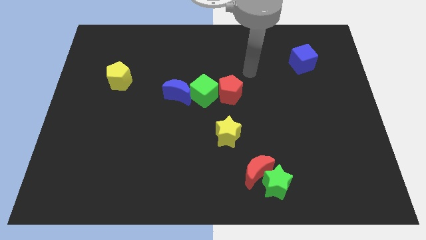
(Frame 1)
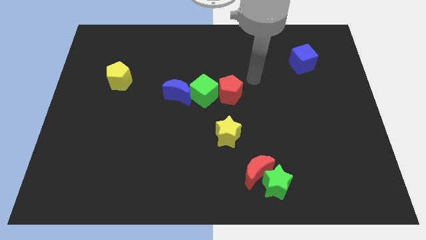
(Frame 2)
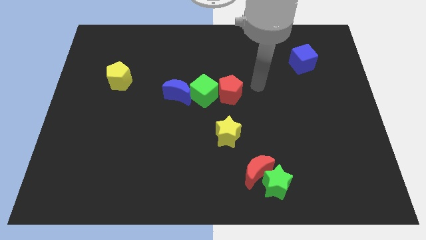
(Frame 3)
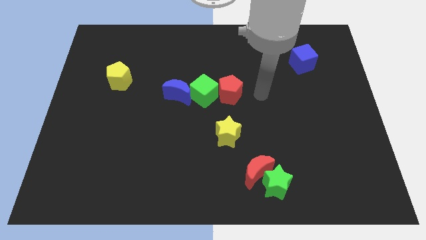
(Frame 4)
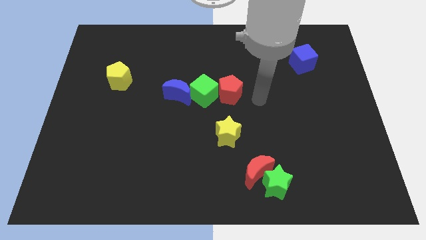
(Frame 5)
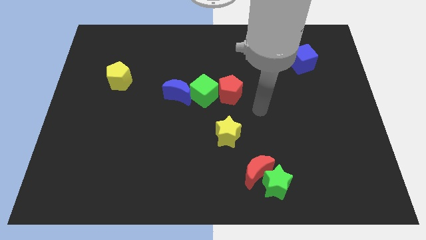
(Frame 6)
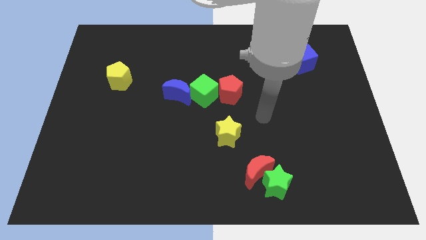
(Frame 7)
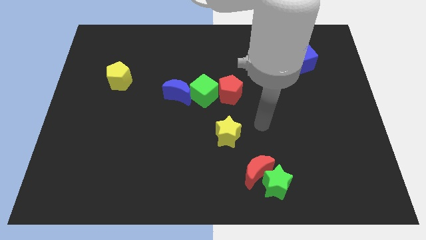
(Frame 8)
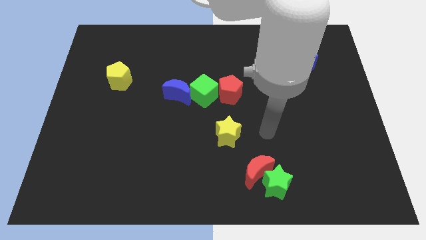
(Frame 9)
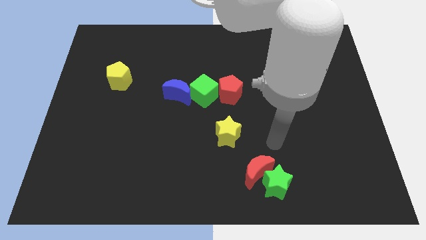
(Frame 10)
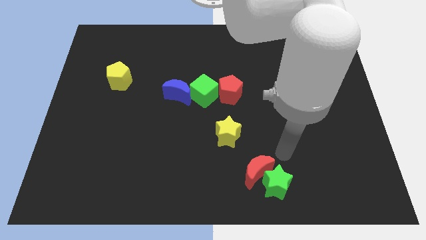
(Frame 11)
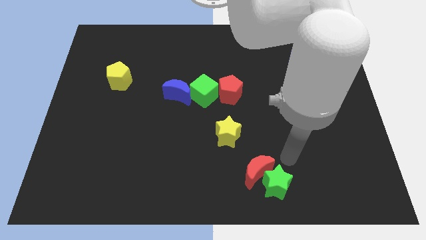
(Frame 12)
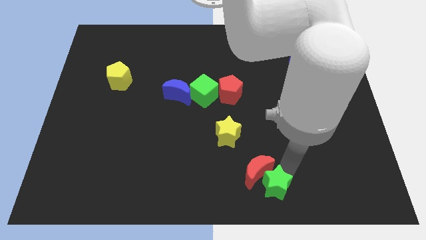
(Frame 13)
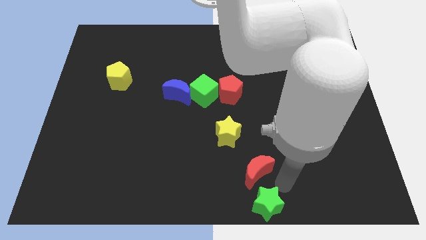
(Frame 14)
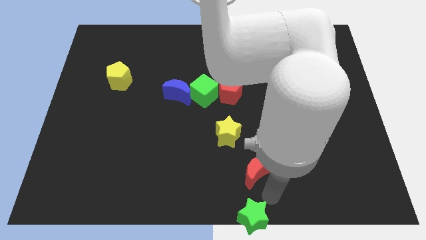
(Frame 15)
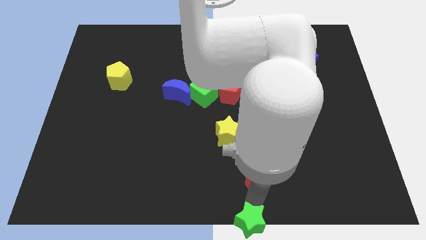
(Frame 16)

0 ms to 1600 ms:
separate the red moon from the green star

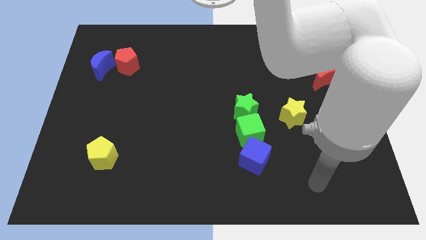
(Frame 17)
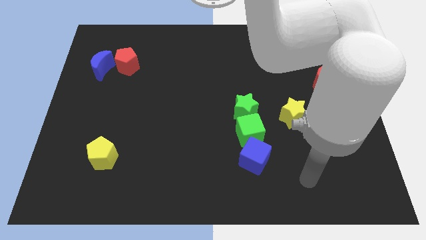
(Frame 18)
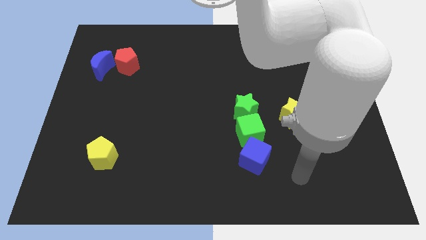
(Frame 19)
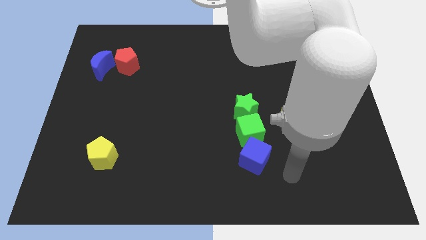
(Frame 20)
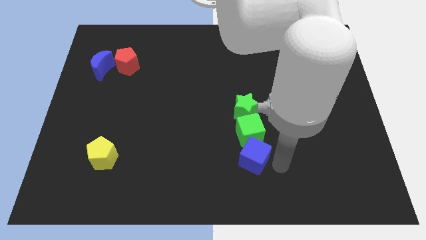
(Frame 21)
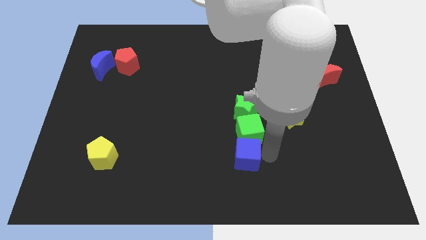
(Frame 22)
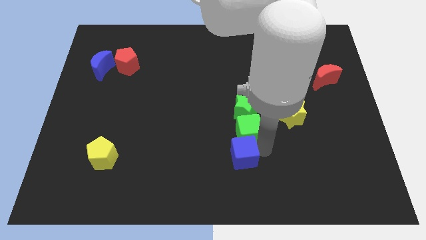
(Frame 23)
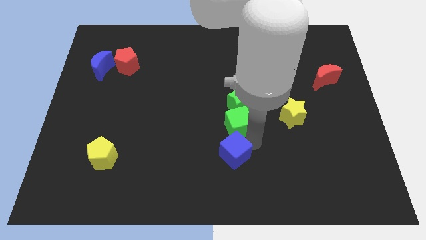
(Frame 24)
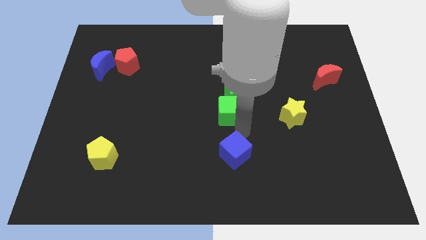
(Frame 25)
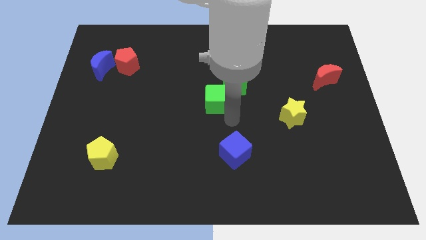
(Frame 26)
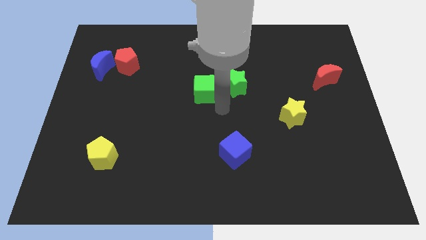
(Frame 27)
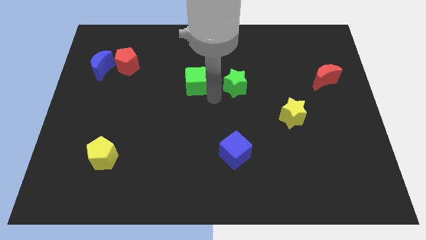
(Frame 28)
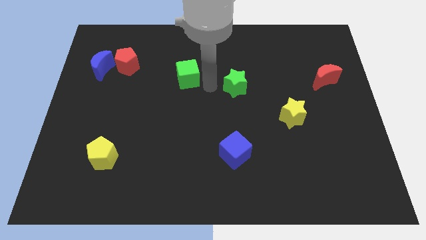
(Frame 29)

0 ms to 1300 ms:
pull the green star apart from the green cube

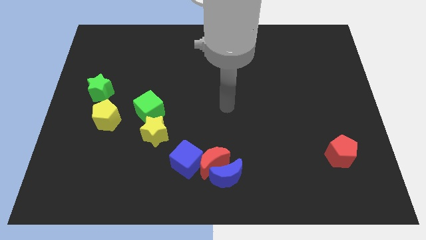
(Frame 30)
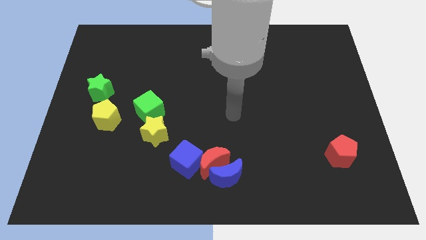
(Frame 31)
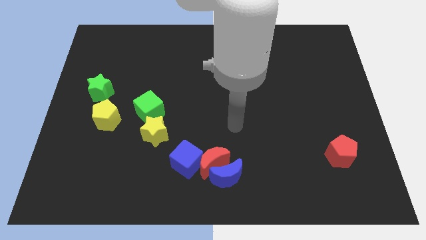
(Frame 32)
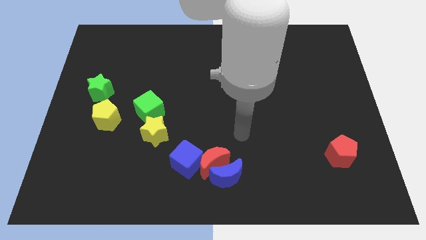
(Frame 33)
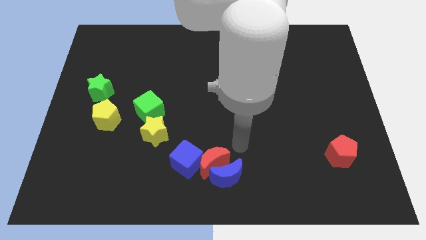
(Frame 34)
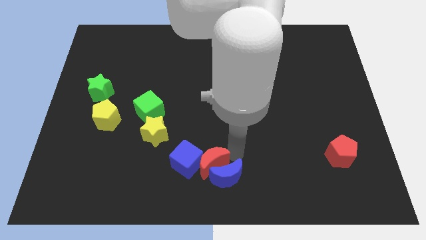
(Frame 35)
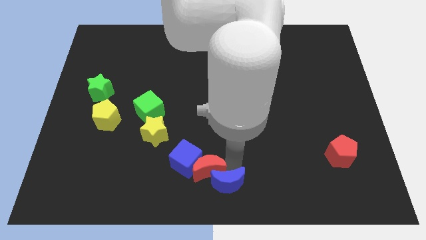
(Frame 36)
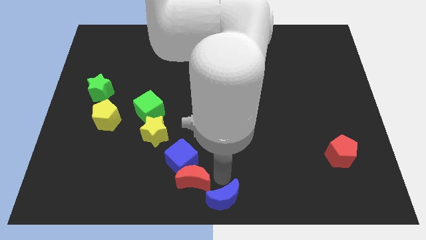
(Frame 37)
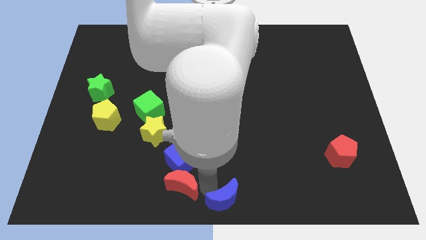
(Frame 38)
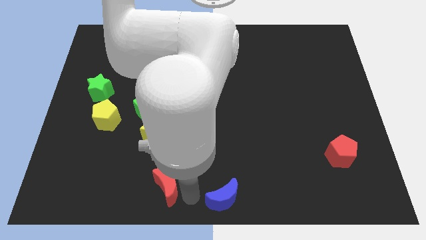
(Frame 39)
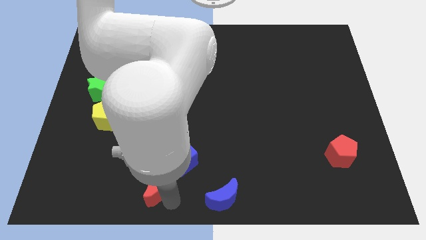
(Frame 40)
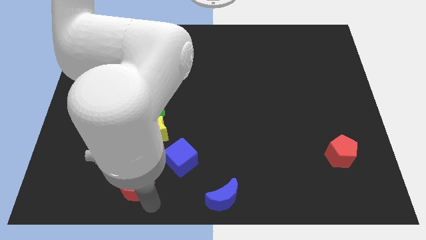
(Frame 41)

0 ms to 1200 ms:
move the red moon away from the blue moon and blue cube

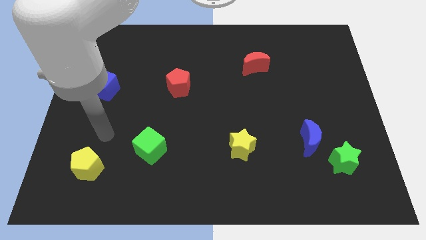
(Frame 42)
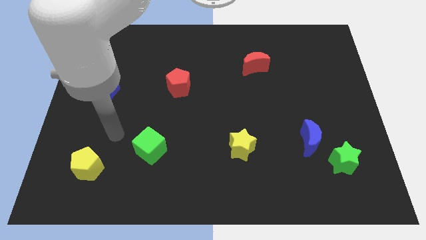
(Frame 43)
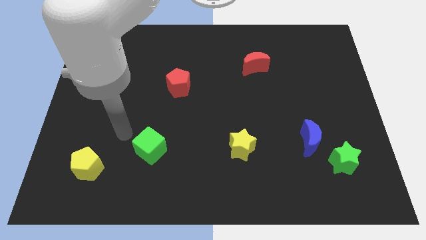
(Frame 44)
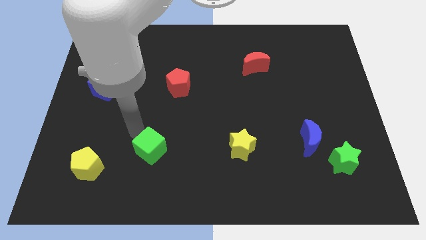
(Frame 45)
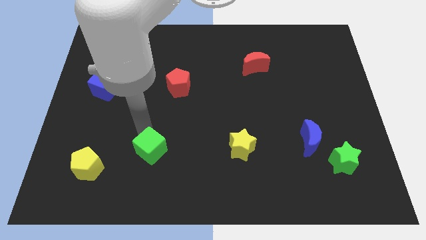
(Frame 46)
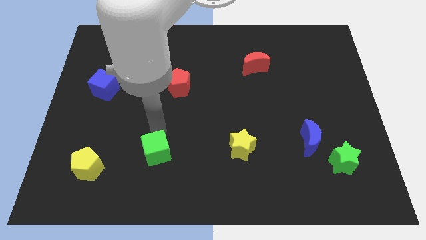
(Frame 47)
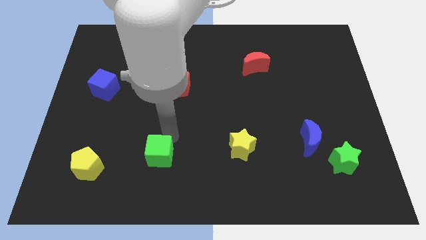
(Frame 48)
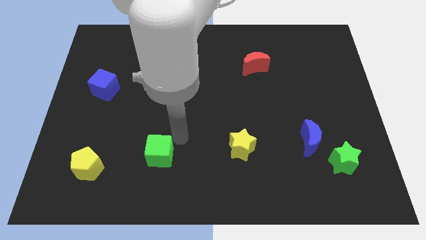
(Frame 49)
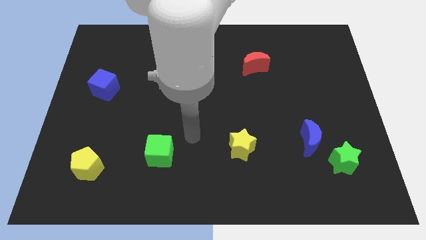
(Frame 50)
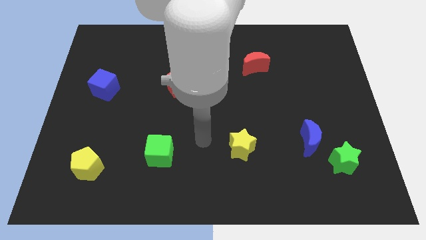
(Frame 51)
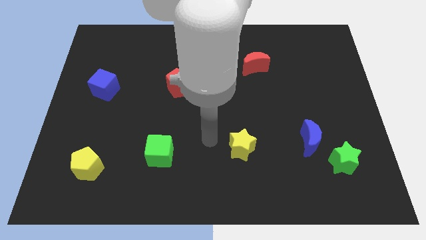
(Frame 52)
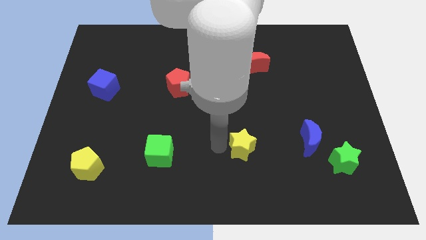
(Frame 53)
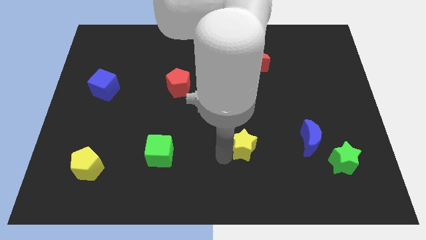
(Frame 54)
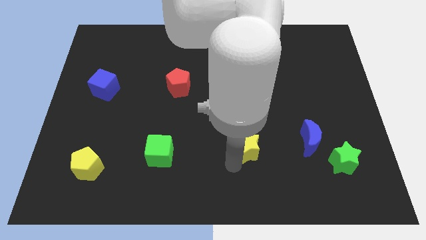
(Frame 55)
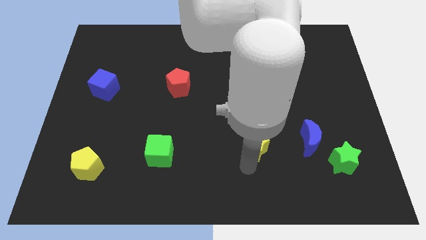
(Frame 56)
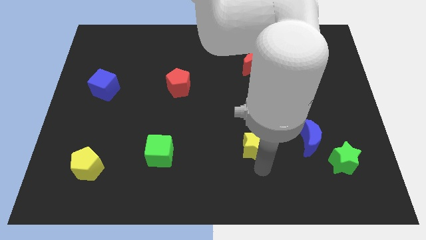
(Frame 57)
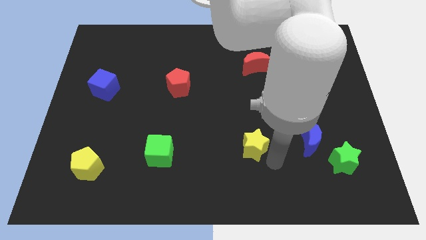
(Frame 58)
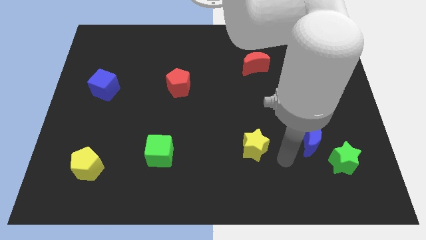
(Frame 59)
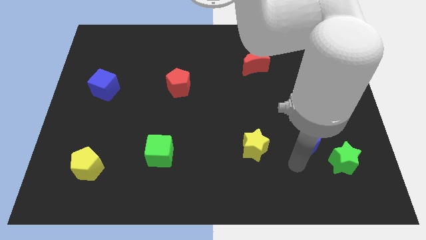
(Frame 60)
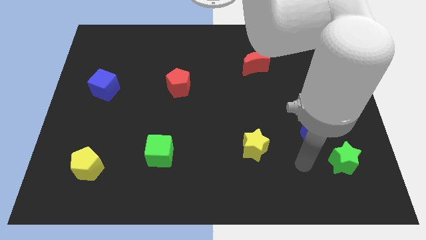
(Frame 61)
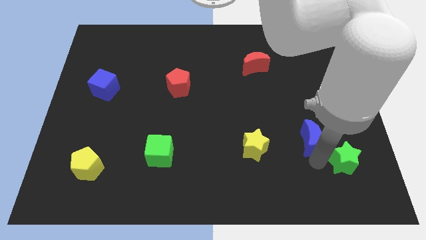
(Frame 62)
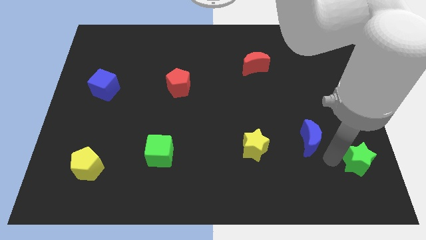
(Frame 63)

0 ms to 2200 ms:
pull the blue moon apart from the green star

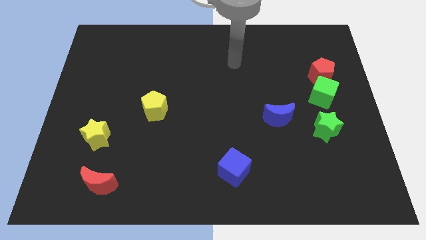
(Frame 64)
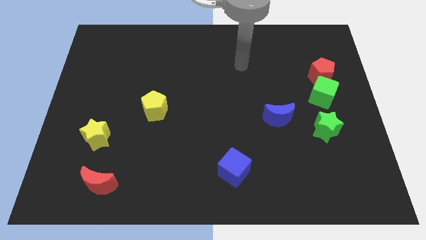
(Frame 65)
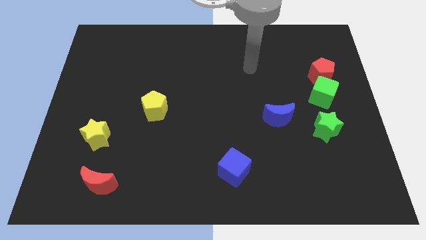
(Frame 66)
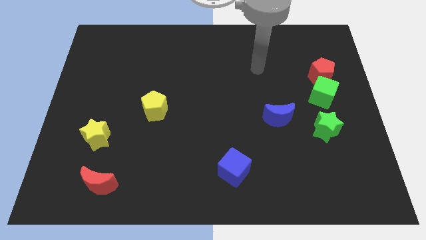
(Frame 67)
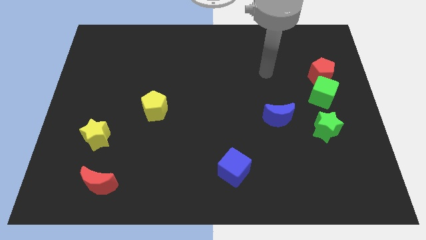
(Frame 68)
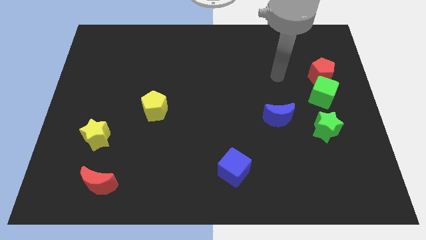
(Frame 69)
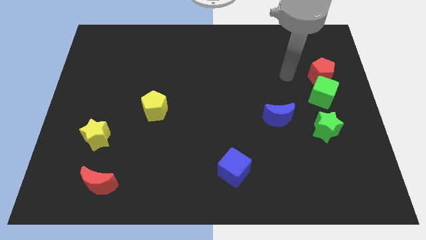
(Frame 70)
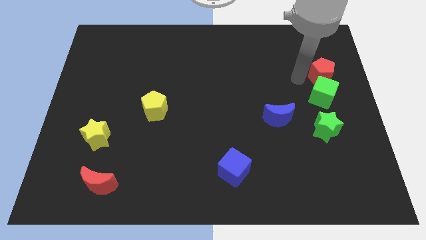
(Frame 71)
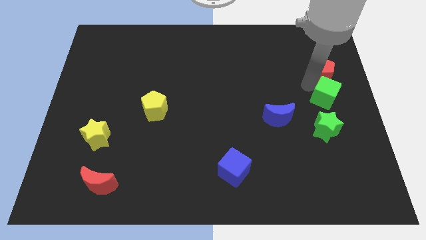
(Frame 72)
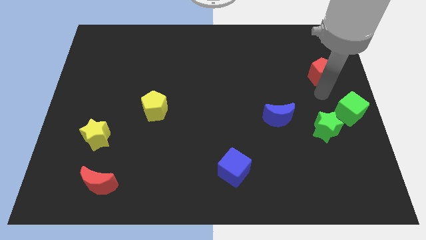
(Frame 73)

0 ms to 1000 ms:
move the red pentagon away from the green cube

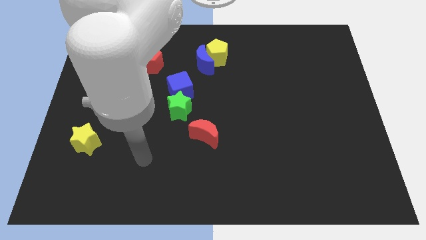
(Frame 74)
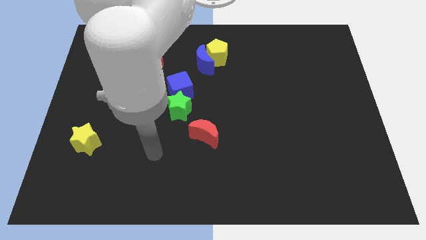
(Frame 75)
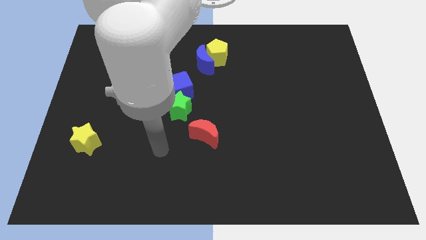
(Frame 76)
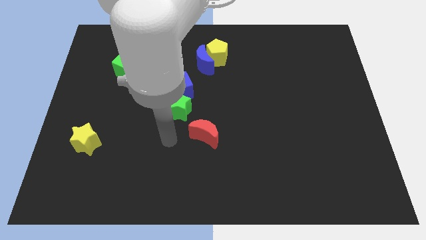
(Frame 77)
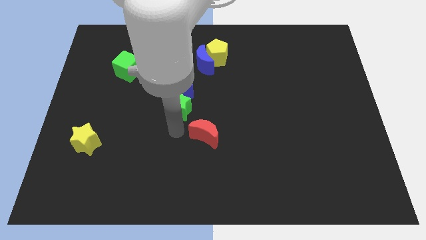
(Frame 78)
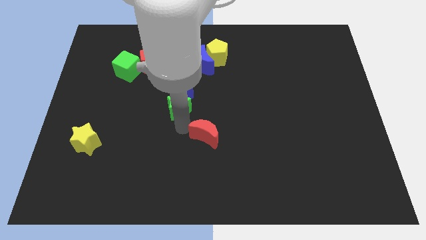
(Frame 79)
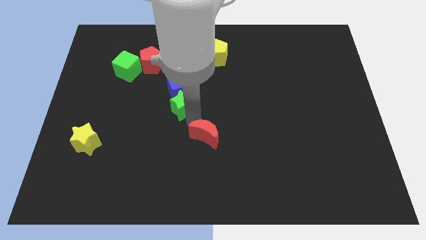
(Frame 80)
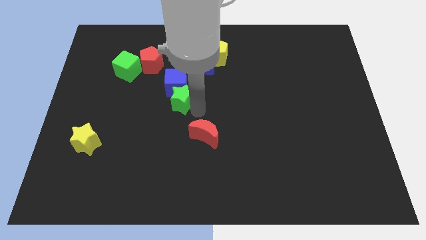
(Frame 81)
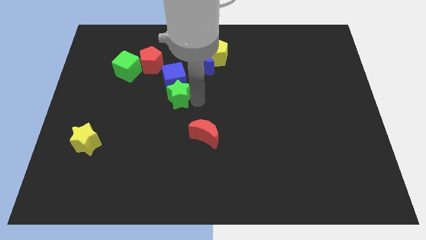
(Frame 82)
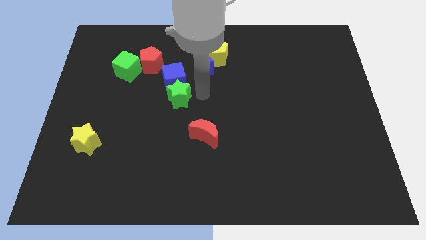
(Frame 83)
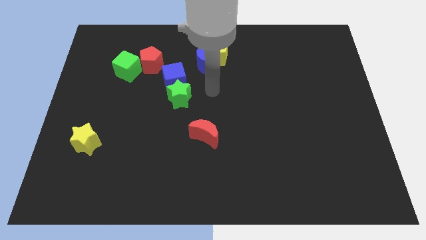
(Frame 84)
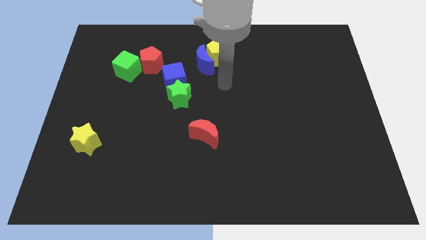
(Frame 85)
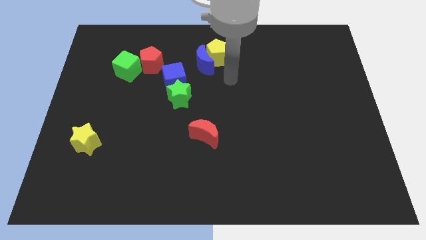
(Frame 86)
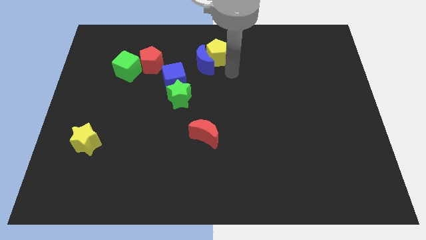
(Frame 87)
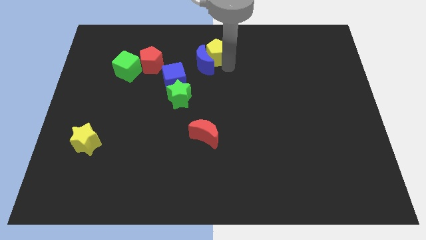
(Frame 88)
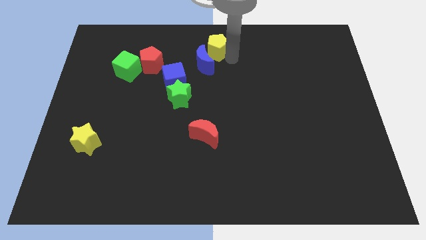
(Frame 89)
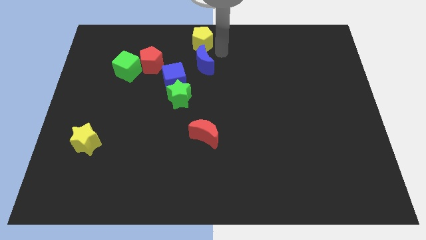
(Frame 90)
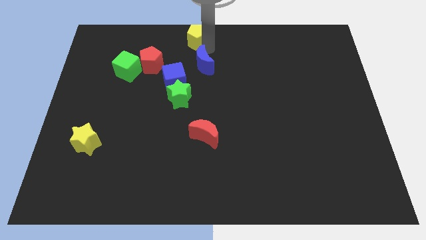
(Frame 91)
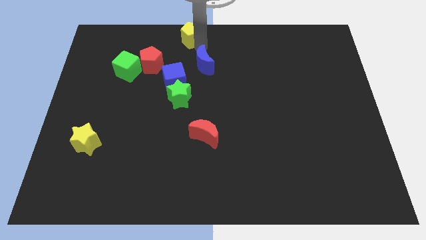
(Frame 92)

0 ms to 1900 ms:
move the blue moon away from the yellow pentagon

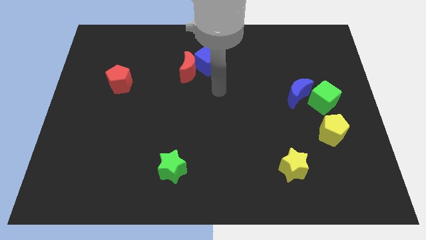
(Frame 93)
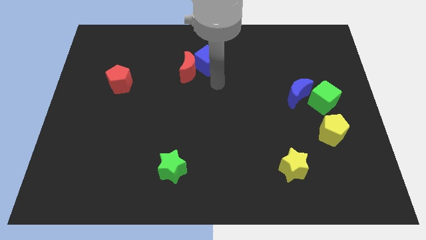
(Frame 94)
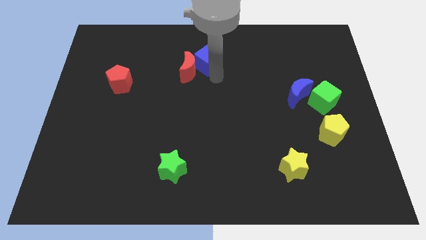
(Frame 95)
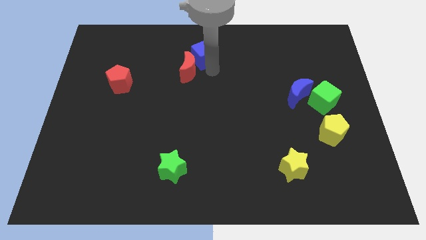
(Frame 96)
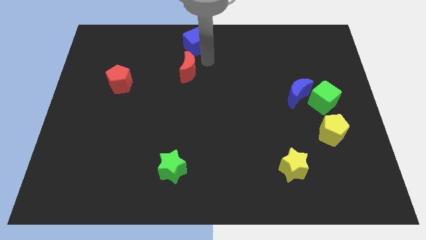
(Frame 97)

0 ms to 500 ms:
separate the red moon from the blue cube
